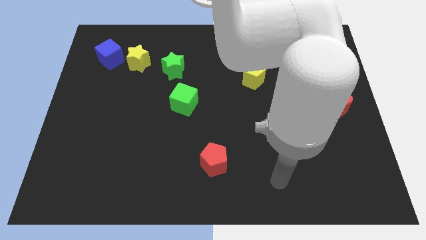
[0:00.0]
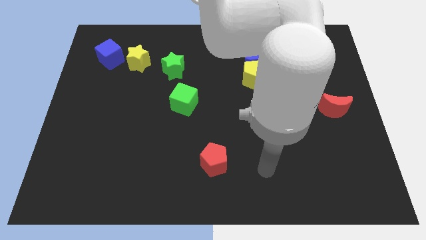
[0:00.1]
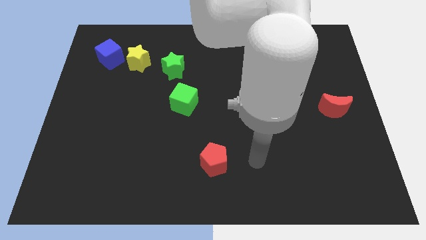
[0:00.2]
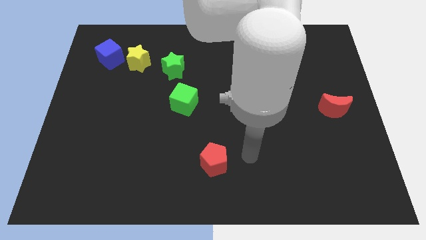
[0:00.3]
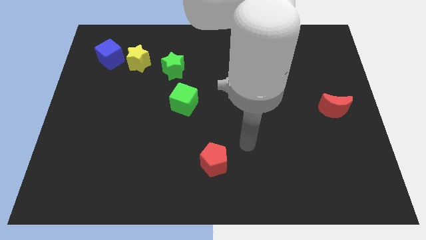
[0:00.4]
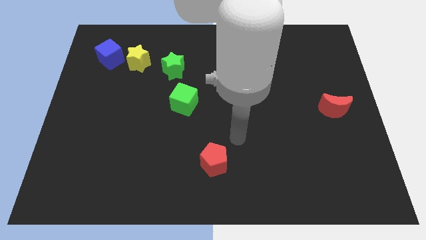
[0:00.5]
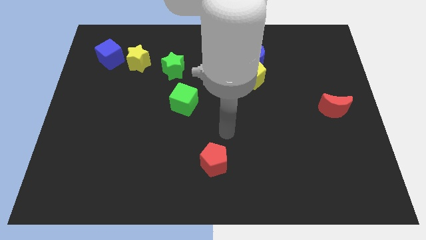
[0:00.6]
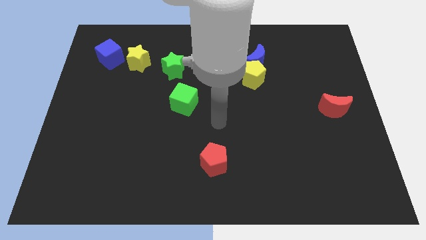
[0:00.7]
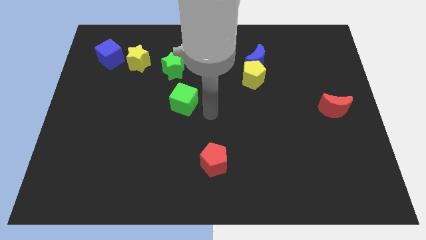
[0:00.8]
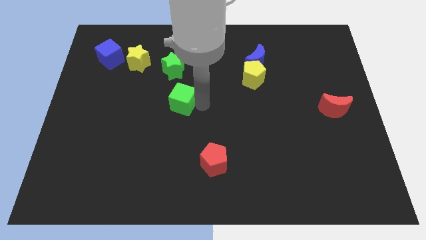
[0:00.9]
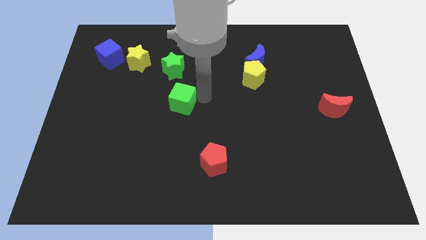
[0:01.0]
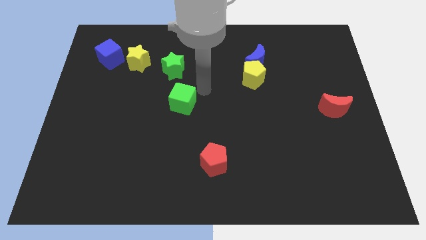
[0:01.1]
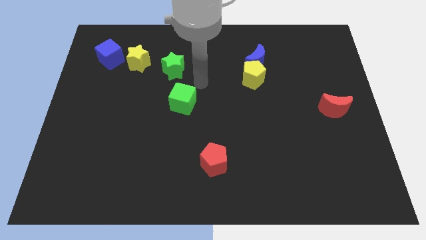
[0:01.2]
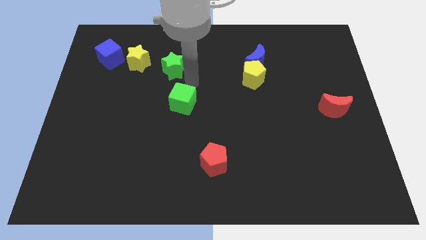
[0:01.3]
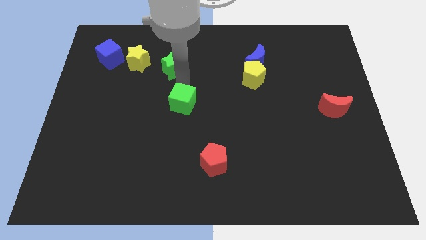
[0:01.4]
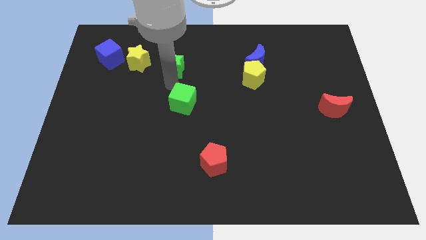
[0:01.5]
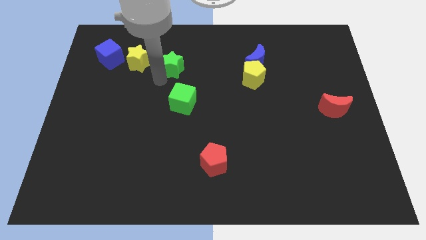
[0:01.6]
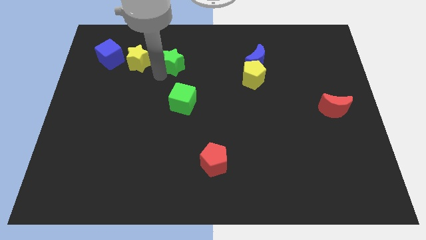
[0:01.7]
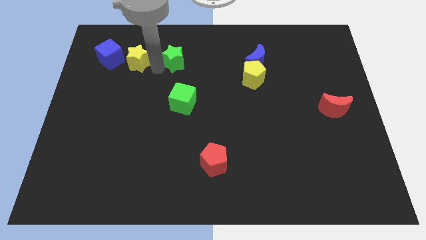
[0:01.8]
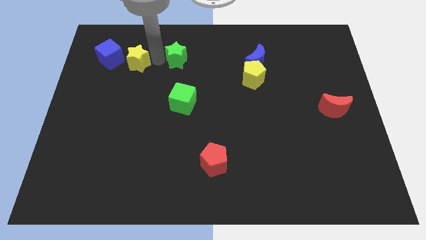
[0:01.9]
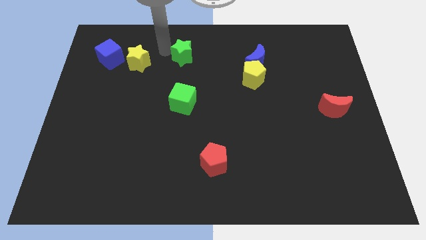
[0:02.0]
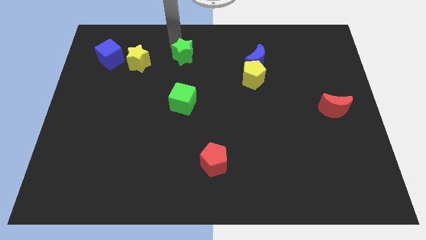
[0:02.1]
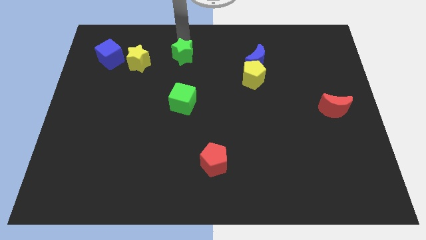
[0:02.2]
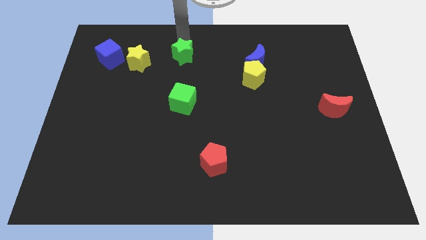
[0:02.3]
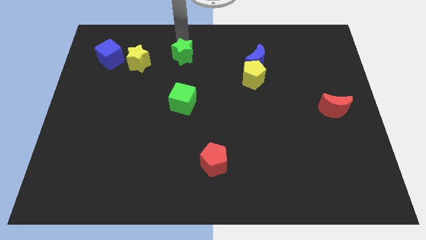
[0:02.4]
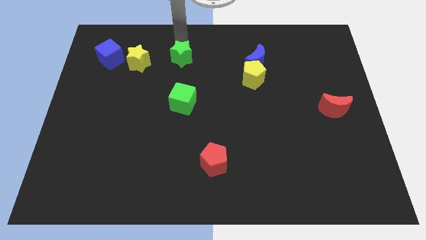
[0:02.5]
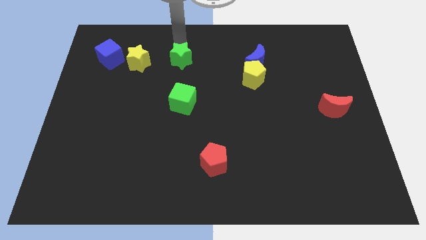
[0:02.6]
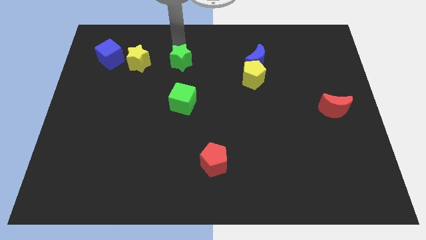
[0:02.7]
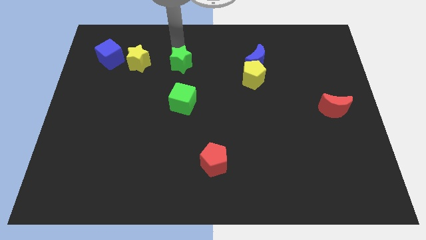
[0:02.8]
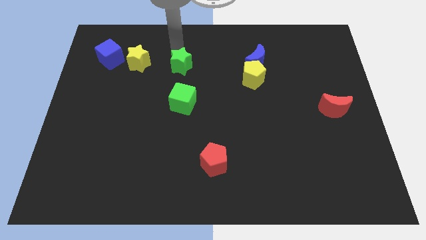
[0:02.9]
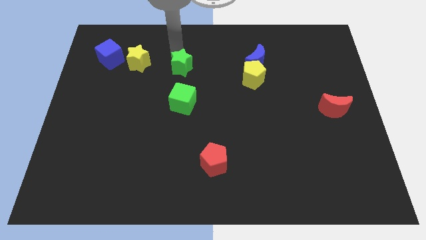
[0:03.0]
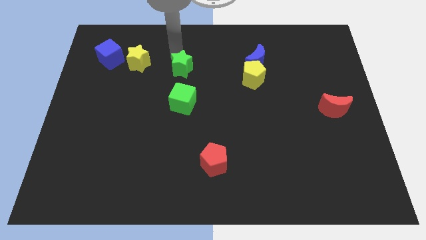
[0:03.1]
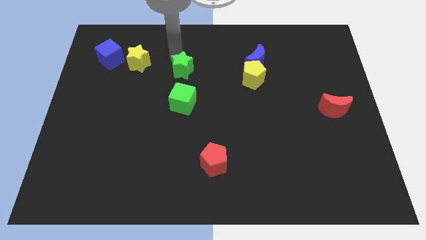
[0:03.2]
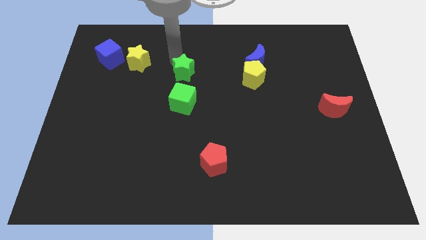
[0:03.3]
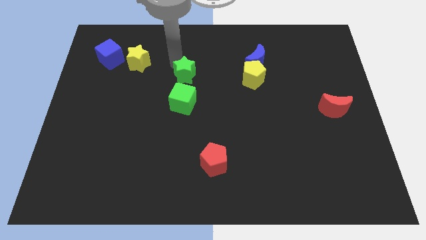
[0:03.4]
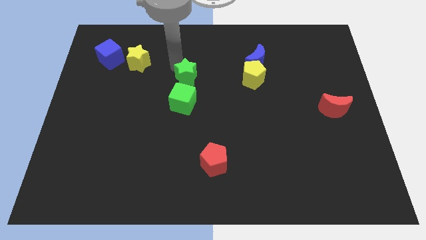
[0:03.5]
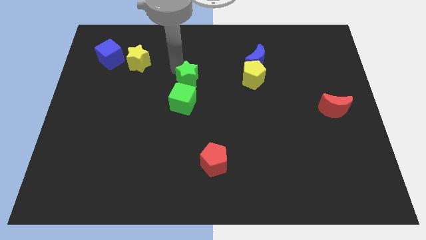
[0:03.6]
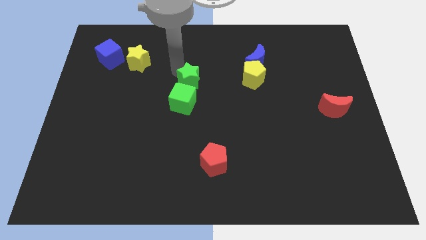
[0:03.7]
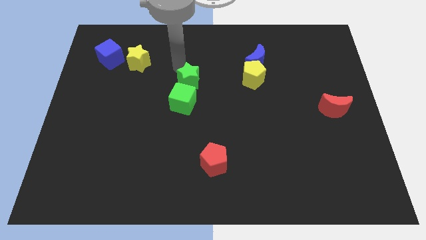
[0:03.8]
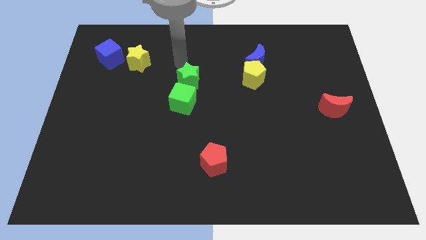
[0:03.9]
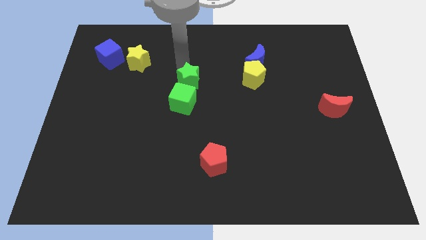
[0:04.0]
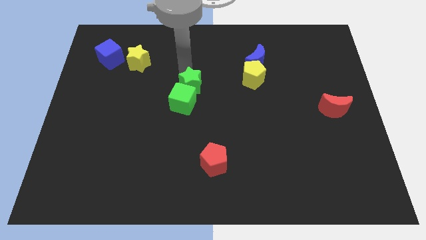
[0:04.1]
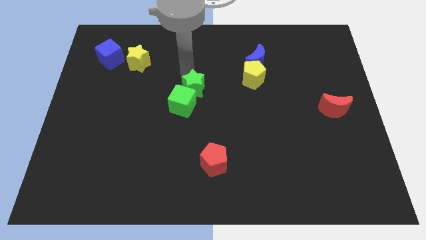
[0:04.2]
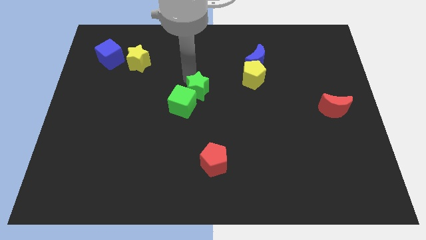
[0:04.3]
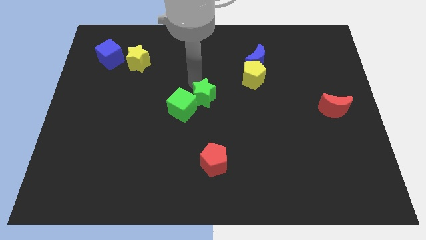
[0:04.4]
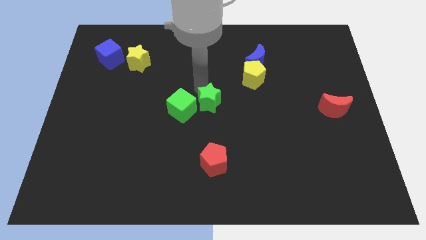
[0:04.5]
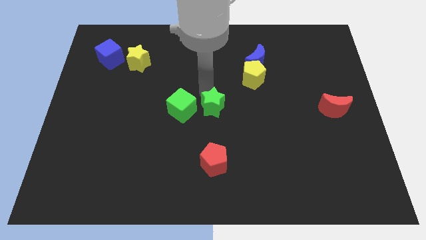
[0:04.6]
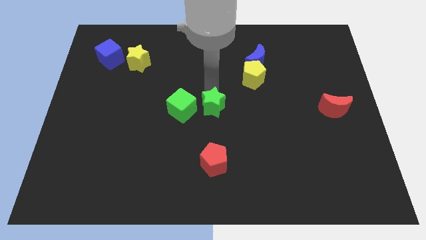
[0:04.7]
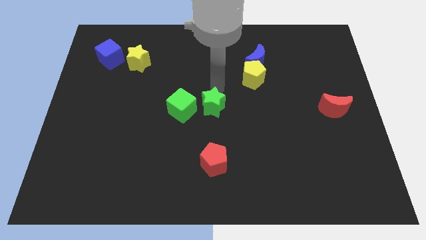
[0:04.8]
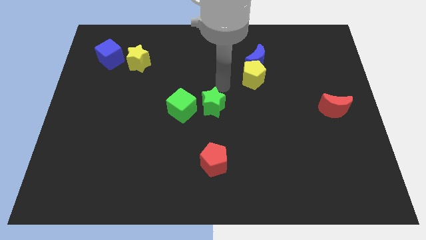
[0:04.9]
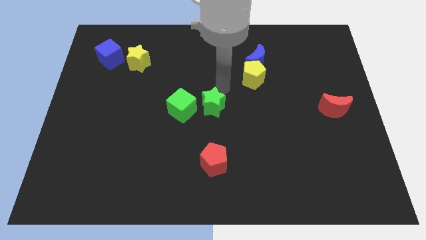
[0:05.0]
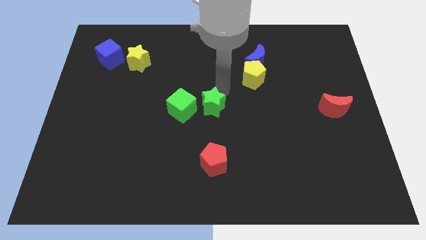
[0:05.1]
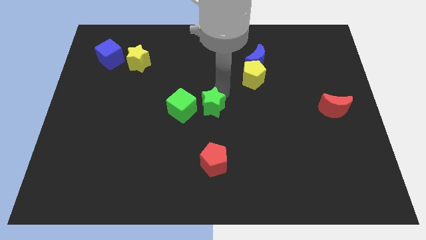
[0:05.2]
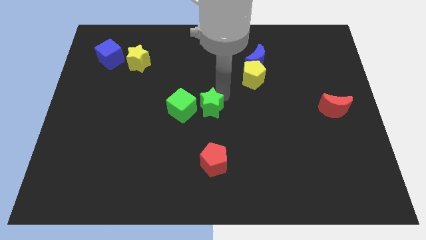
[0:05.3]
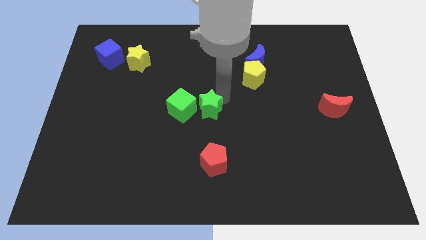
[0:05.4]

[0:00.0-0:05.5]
put the green star to the bottom right side of the green cube
